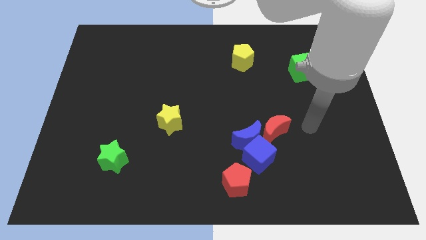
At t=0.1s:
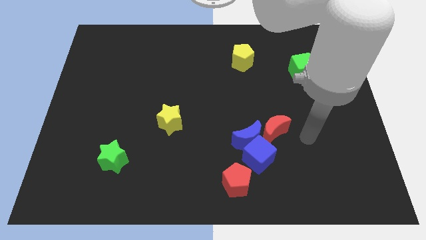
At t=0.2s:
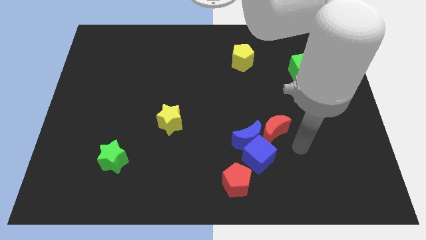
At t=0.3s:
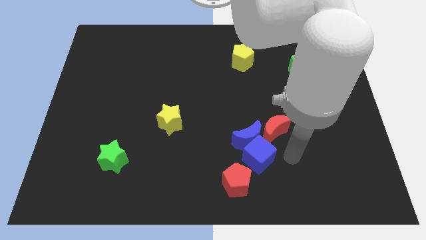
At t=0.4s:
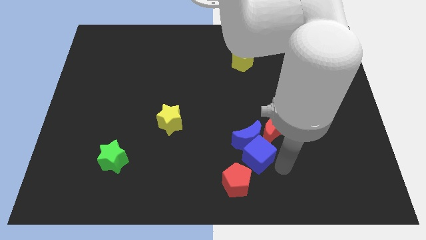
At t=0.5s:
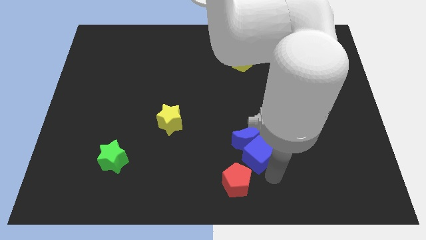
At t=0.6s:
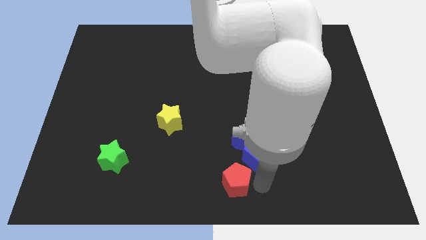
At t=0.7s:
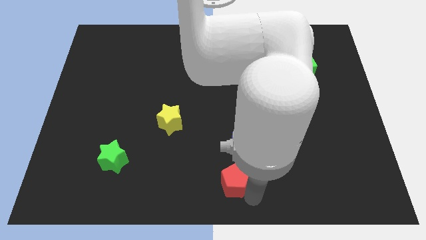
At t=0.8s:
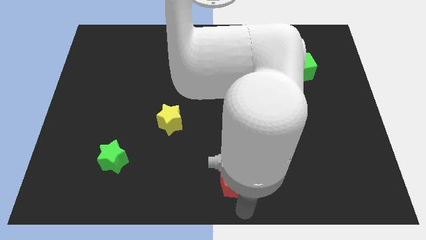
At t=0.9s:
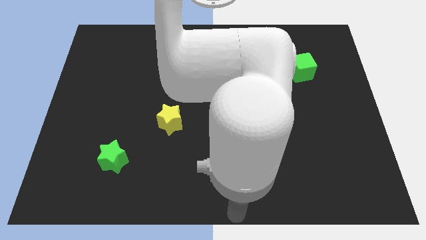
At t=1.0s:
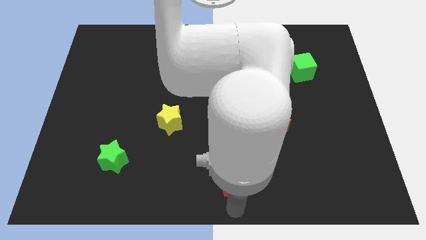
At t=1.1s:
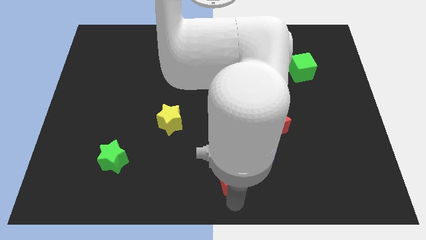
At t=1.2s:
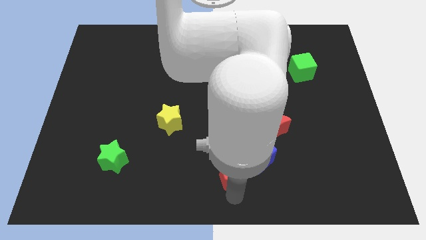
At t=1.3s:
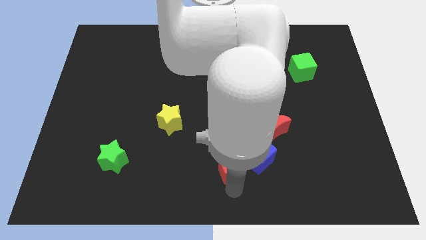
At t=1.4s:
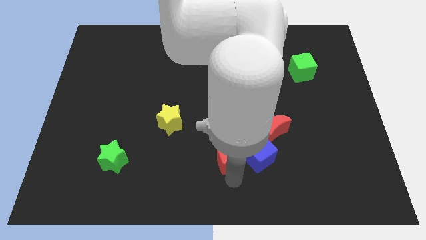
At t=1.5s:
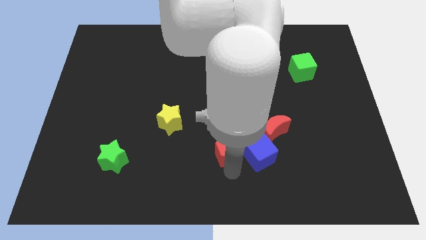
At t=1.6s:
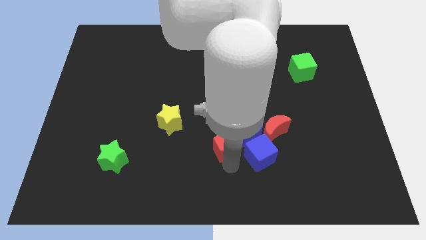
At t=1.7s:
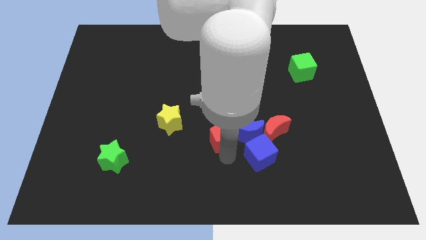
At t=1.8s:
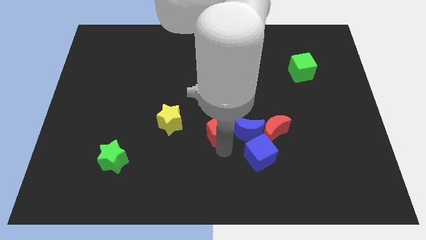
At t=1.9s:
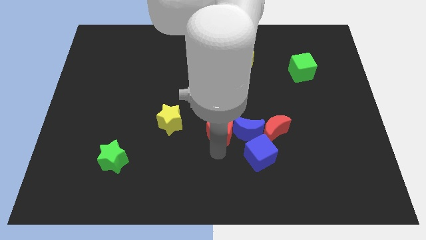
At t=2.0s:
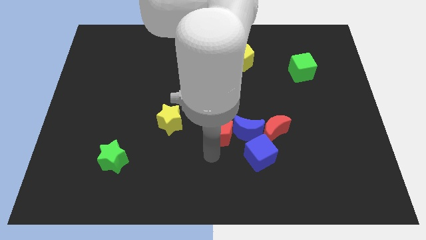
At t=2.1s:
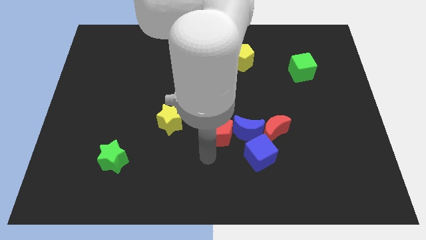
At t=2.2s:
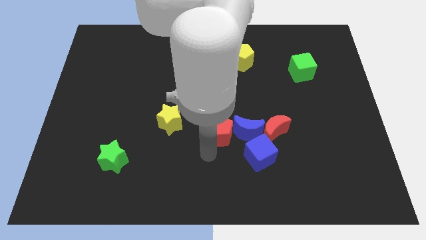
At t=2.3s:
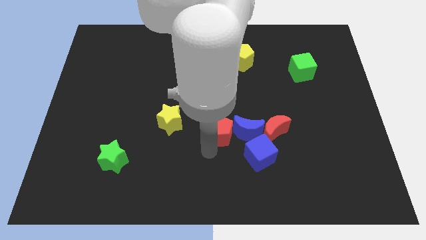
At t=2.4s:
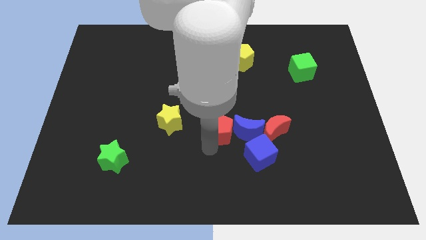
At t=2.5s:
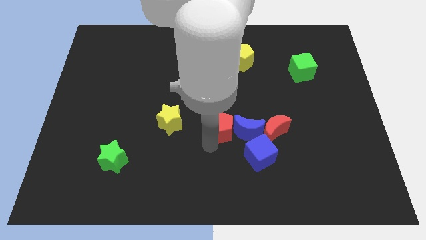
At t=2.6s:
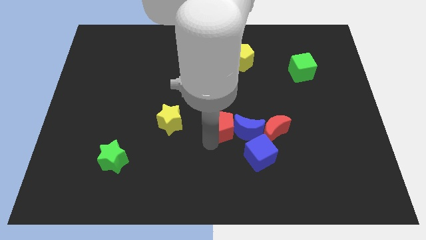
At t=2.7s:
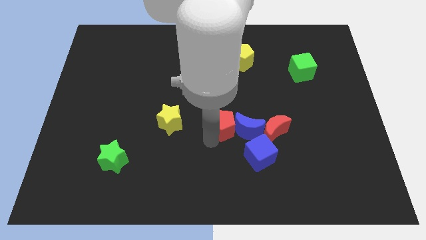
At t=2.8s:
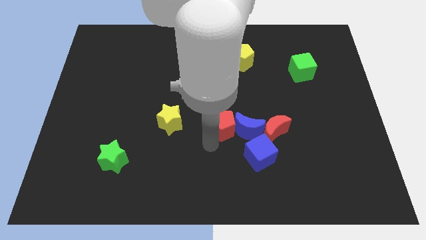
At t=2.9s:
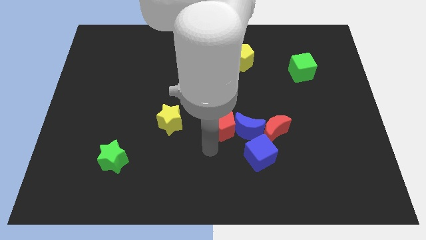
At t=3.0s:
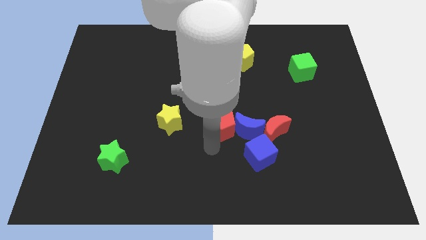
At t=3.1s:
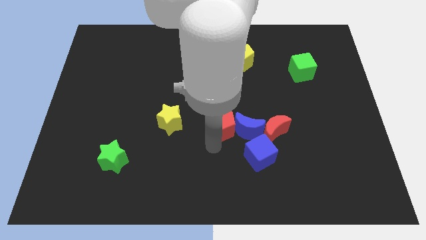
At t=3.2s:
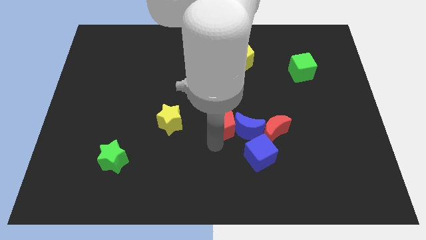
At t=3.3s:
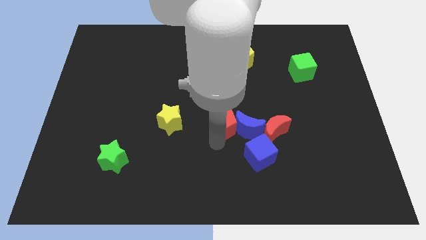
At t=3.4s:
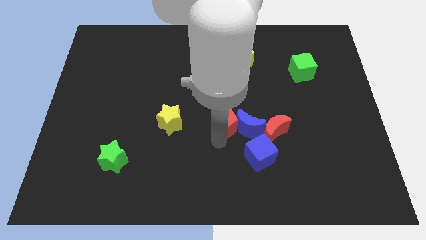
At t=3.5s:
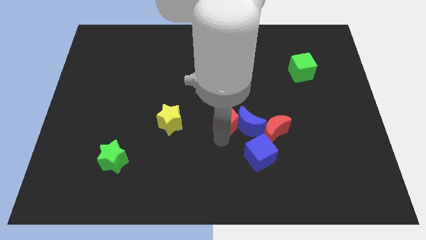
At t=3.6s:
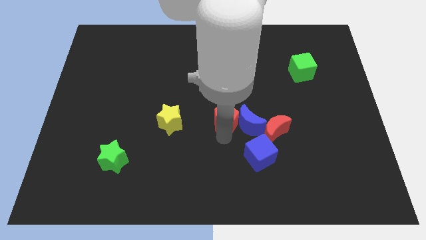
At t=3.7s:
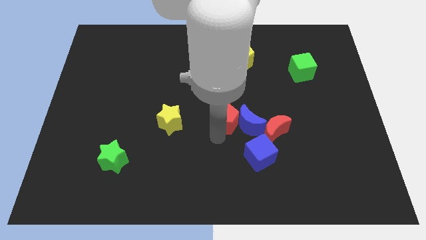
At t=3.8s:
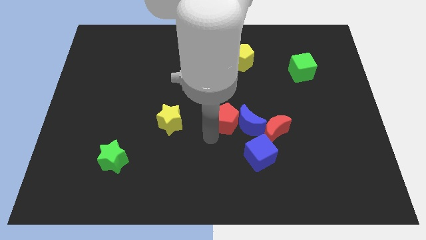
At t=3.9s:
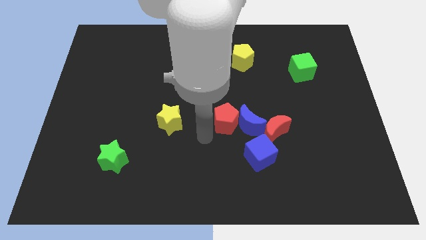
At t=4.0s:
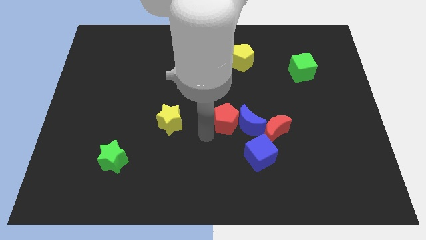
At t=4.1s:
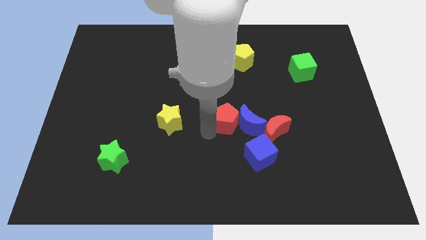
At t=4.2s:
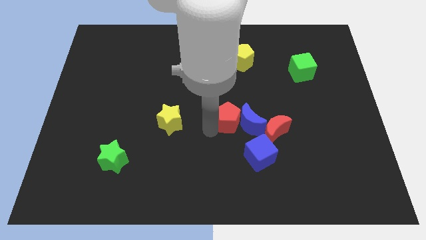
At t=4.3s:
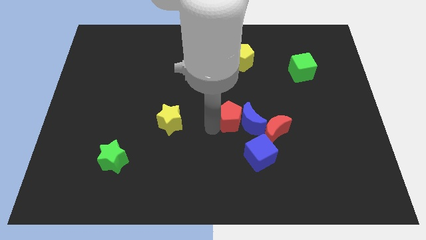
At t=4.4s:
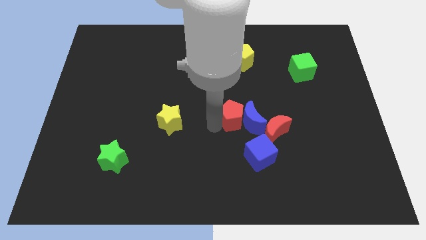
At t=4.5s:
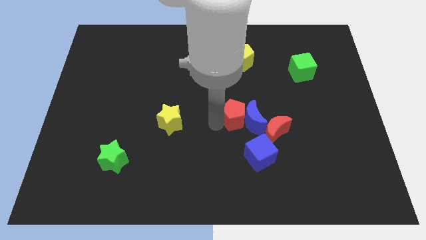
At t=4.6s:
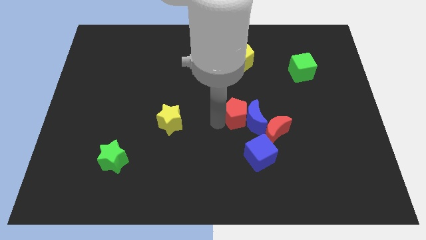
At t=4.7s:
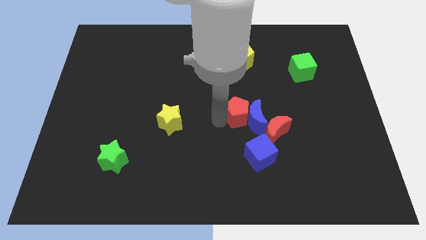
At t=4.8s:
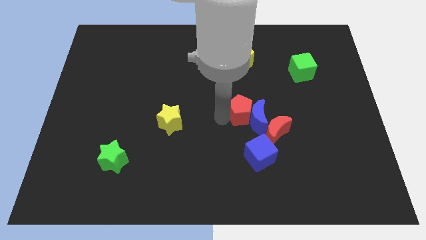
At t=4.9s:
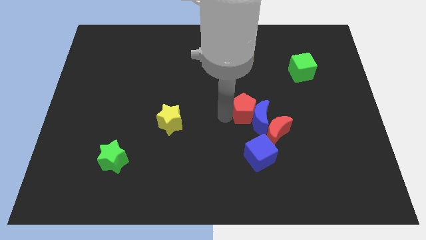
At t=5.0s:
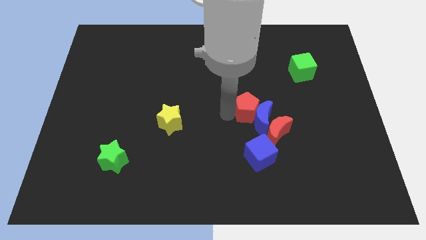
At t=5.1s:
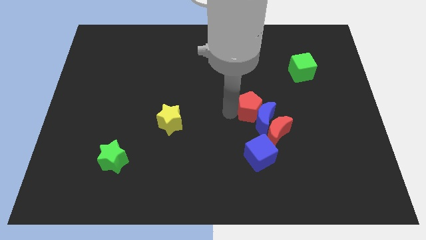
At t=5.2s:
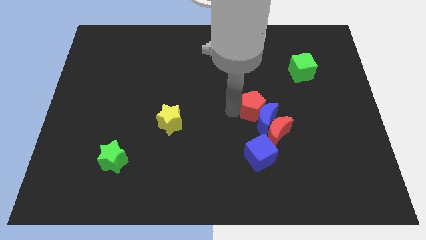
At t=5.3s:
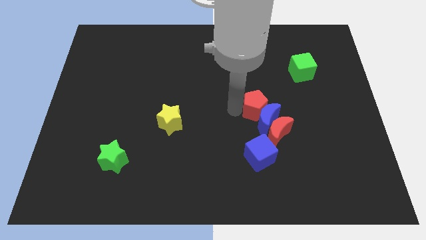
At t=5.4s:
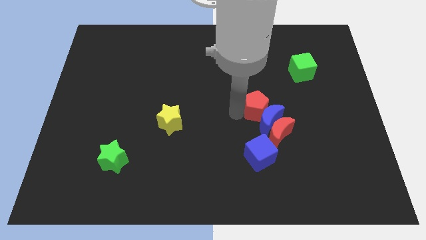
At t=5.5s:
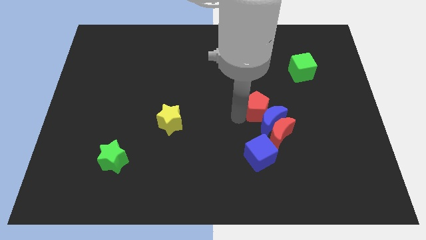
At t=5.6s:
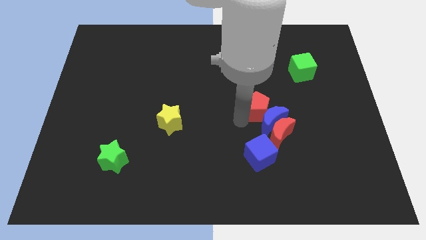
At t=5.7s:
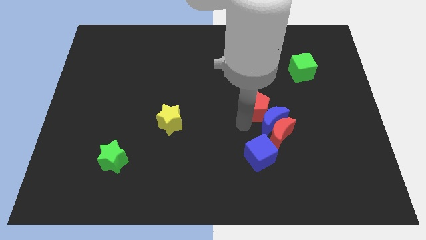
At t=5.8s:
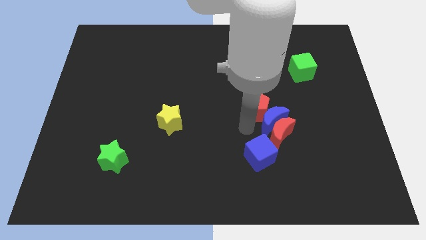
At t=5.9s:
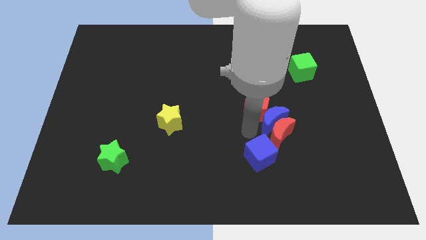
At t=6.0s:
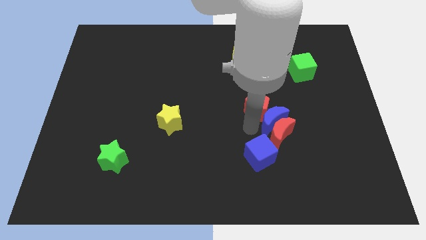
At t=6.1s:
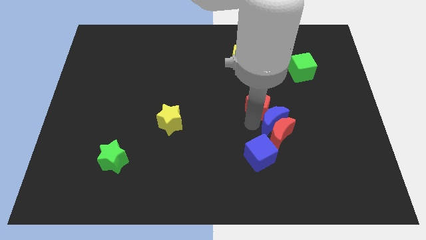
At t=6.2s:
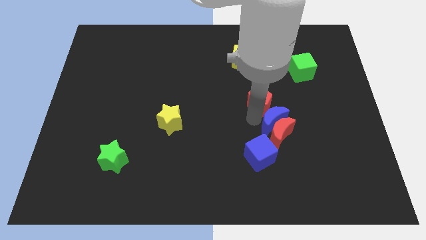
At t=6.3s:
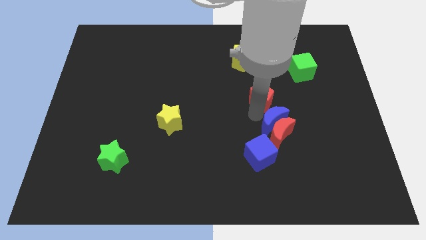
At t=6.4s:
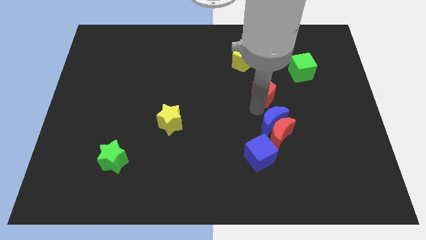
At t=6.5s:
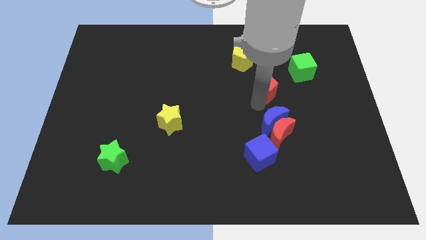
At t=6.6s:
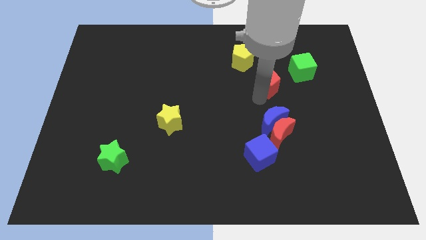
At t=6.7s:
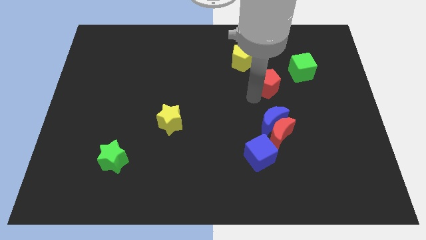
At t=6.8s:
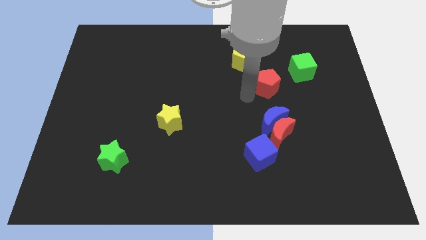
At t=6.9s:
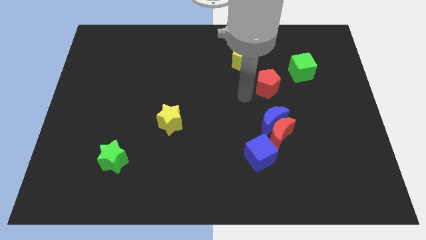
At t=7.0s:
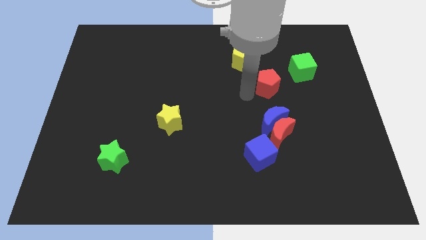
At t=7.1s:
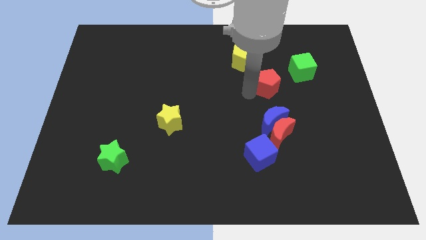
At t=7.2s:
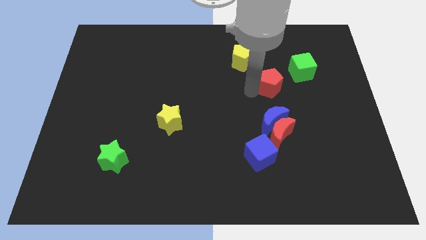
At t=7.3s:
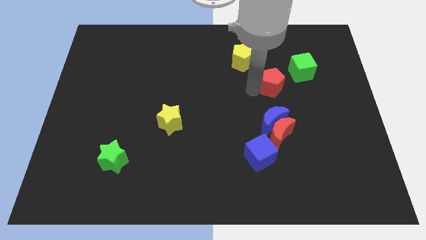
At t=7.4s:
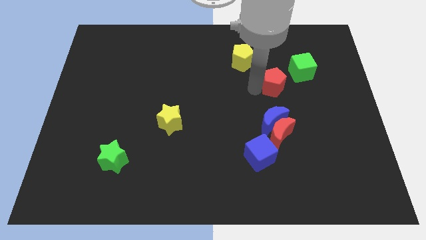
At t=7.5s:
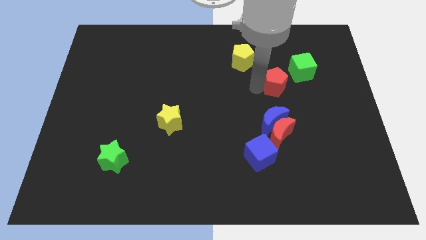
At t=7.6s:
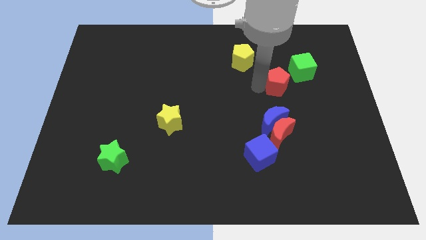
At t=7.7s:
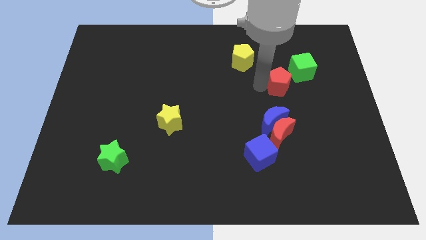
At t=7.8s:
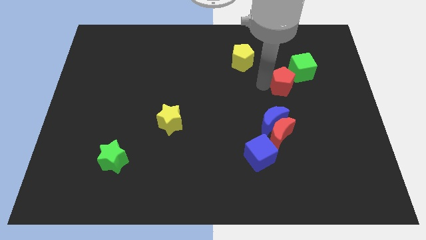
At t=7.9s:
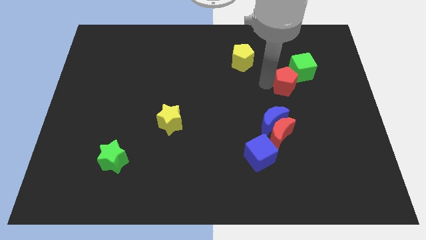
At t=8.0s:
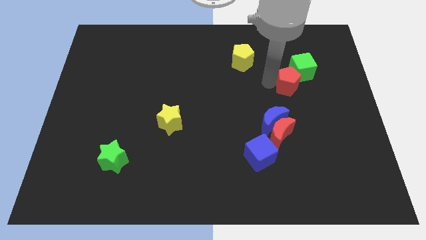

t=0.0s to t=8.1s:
slide the red pentagon next to the green cube
